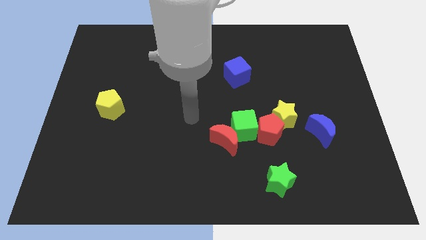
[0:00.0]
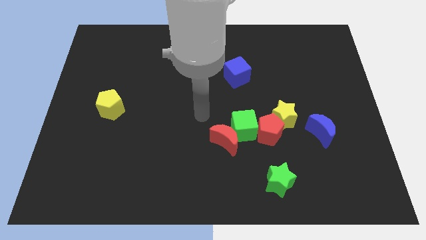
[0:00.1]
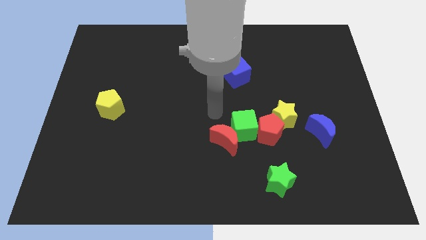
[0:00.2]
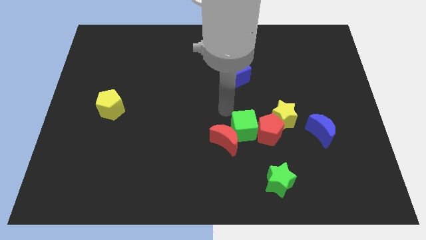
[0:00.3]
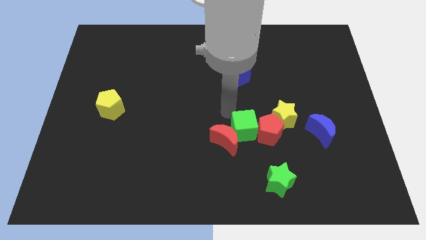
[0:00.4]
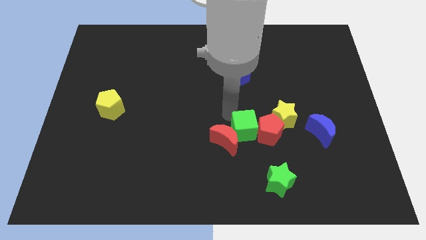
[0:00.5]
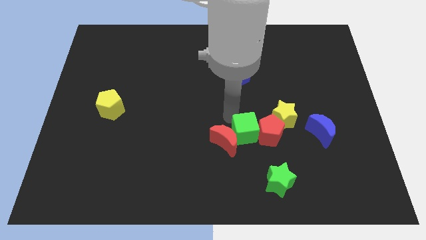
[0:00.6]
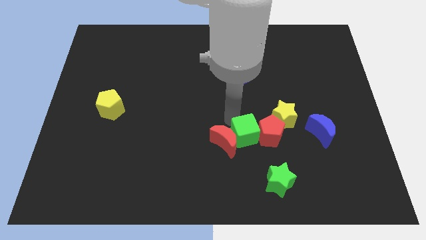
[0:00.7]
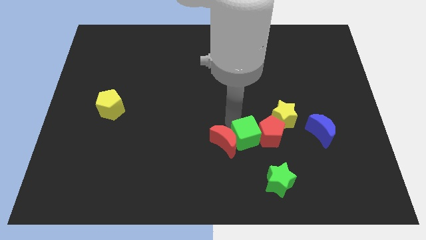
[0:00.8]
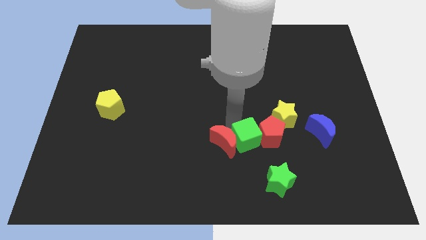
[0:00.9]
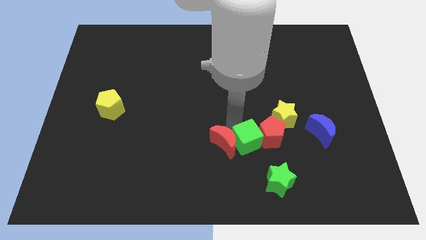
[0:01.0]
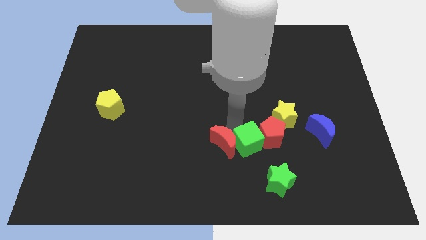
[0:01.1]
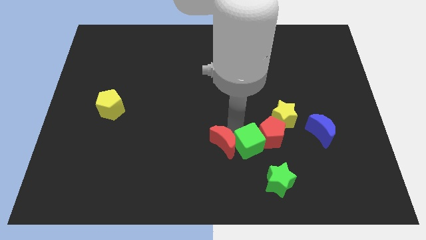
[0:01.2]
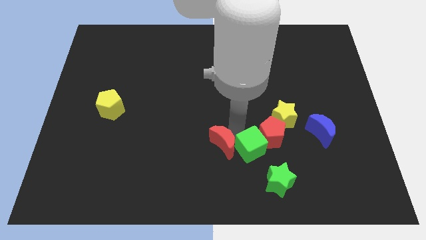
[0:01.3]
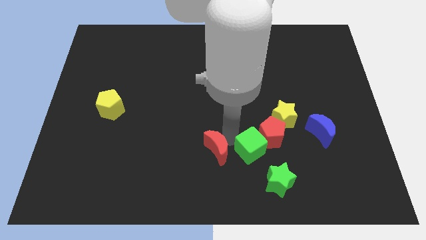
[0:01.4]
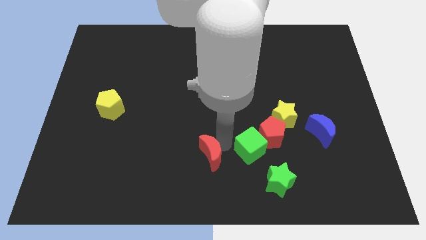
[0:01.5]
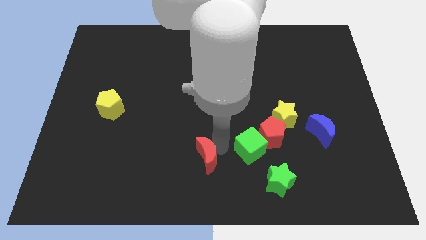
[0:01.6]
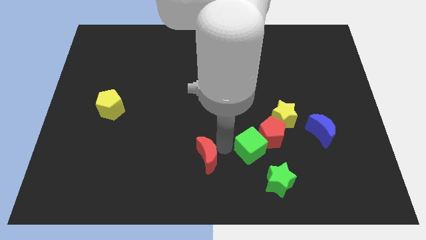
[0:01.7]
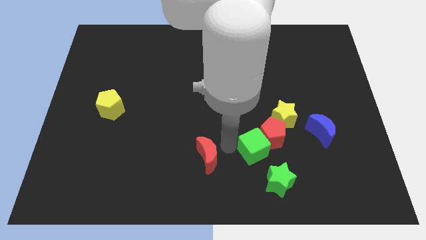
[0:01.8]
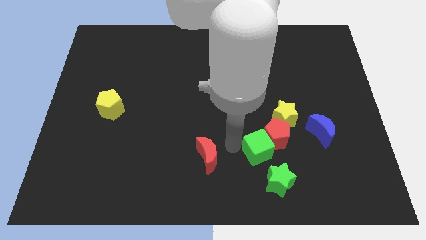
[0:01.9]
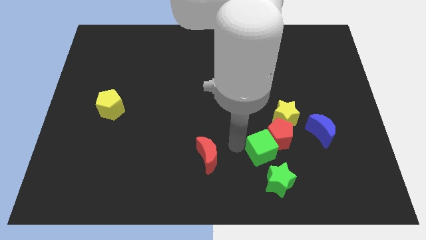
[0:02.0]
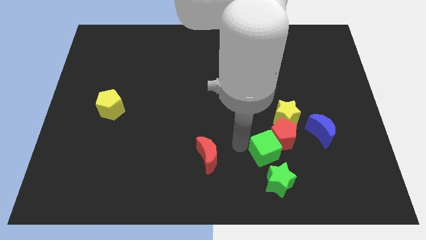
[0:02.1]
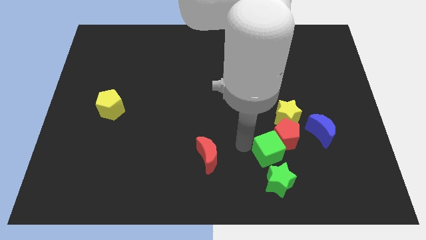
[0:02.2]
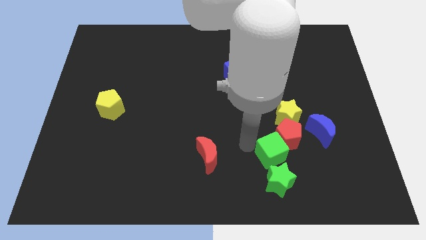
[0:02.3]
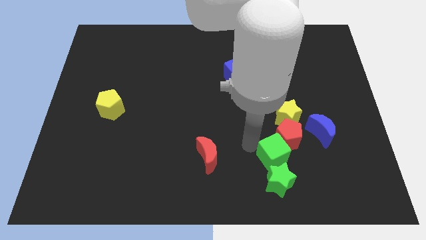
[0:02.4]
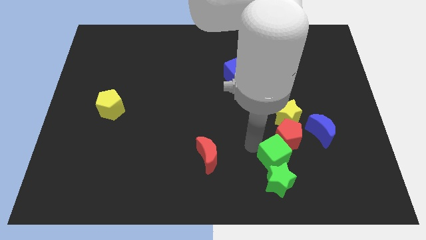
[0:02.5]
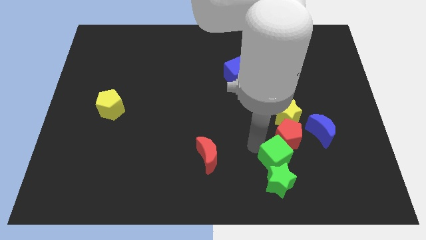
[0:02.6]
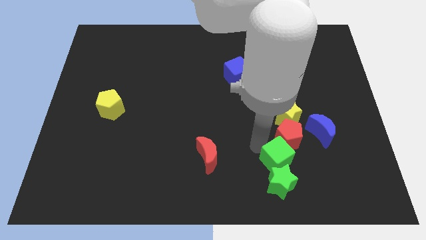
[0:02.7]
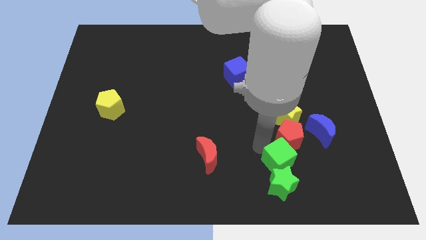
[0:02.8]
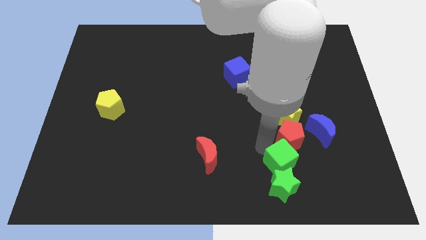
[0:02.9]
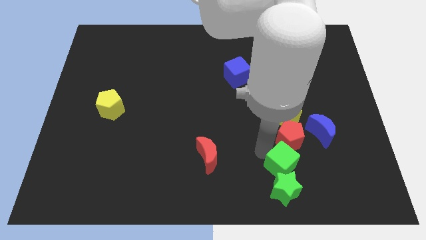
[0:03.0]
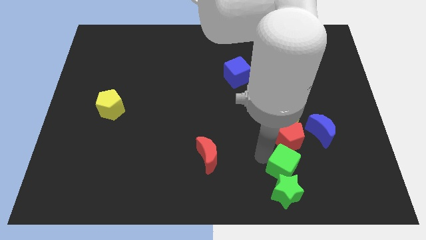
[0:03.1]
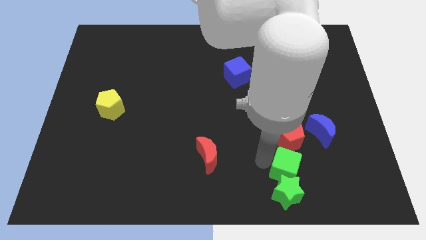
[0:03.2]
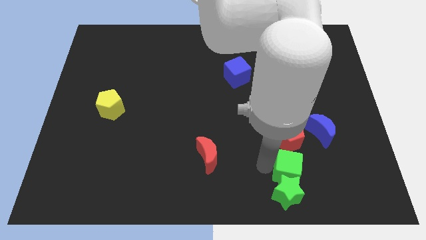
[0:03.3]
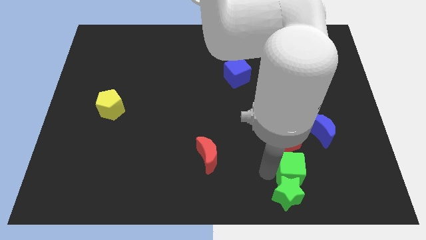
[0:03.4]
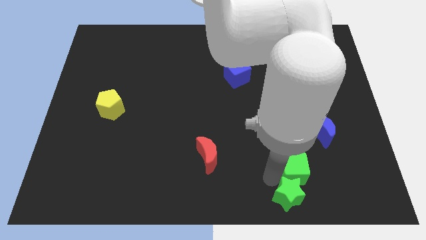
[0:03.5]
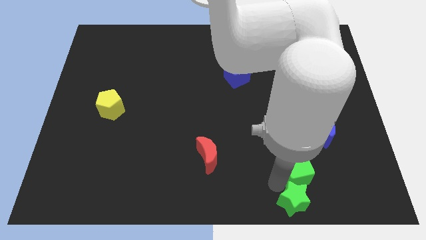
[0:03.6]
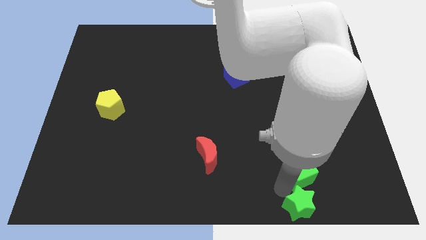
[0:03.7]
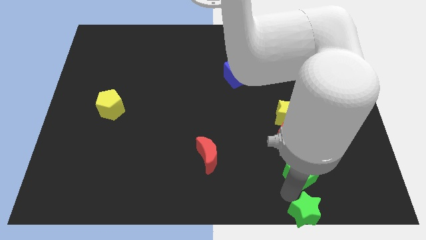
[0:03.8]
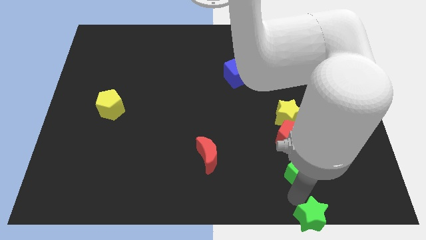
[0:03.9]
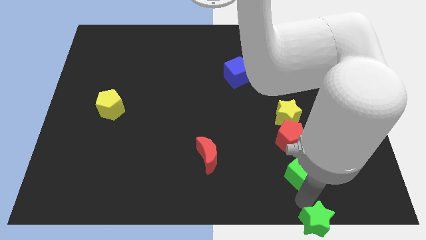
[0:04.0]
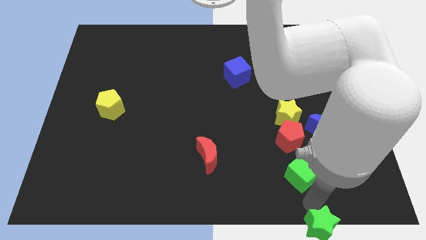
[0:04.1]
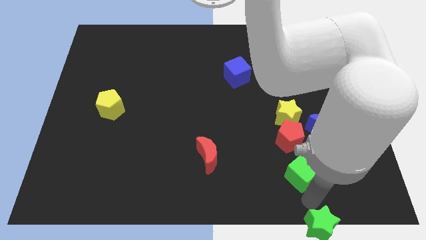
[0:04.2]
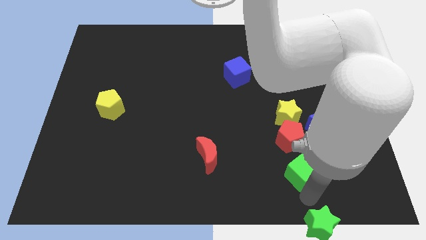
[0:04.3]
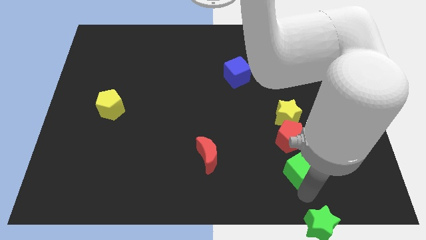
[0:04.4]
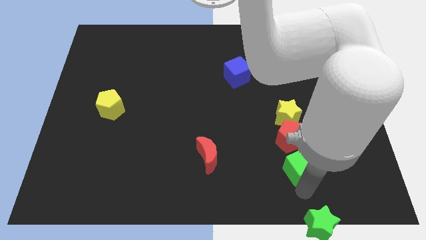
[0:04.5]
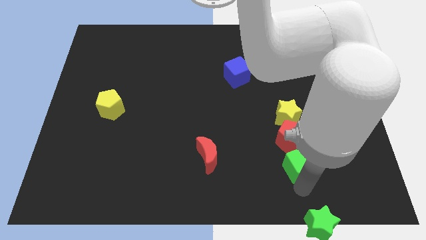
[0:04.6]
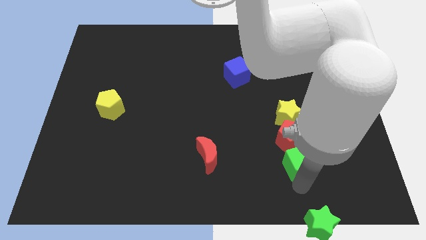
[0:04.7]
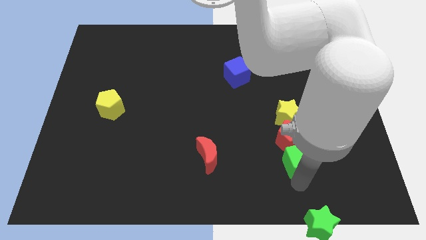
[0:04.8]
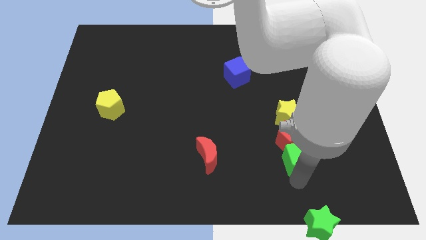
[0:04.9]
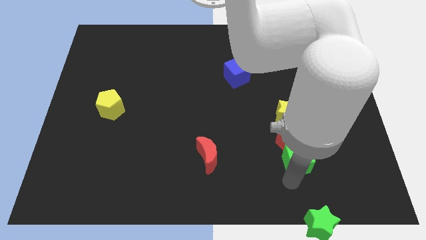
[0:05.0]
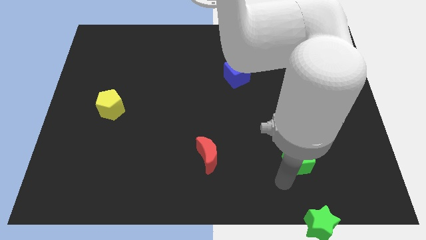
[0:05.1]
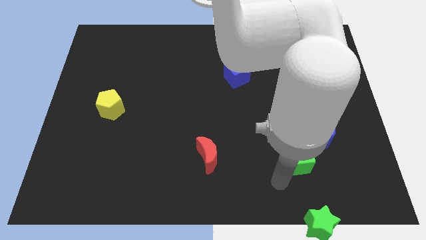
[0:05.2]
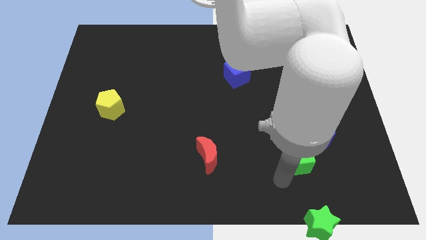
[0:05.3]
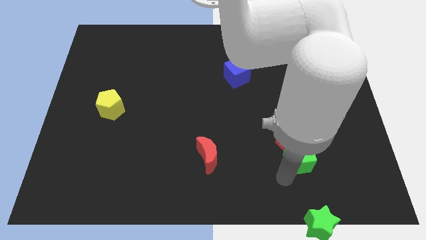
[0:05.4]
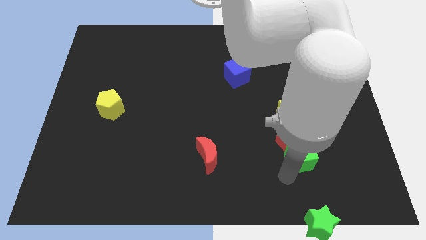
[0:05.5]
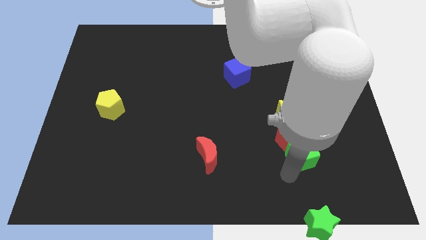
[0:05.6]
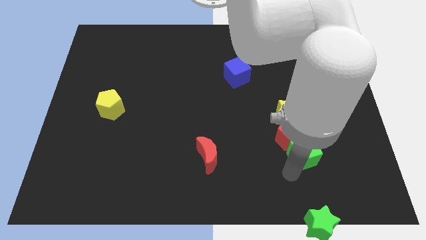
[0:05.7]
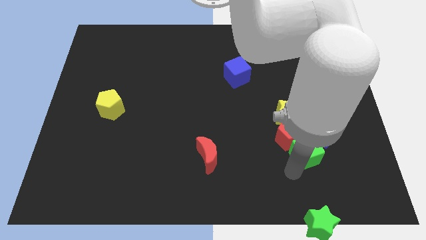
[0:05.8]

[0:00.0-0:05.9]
slide the green cube just right of the red pentagon

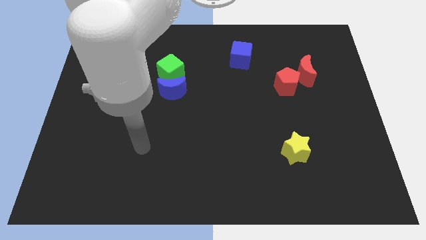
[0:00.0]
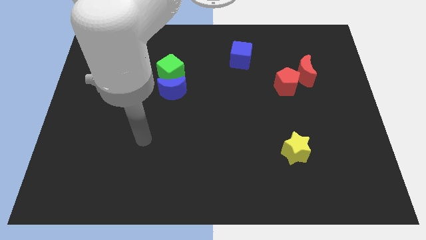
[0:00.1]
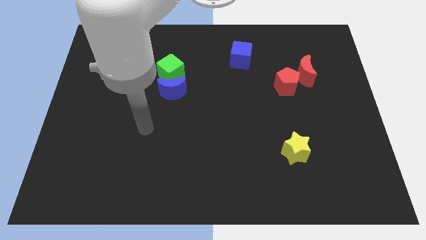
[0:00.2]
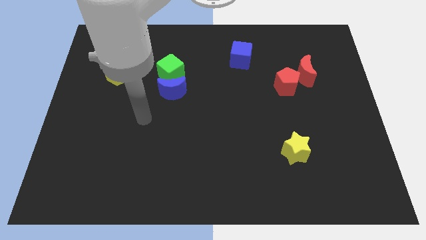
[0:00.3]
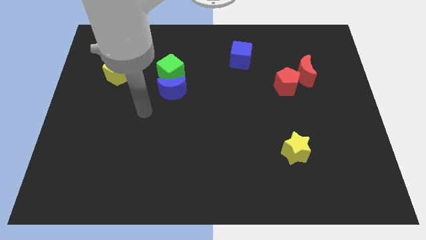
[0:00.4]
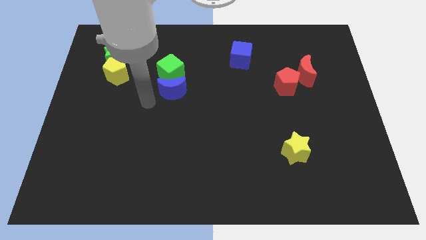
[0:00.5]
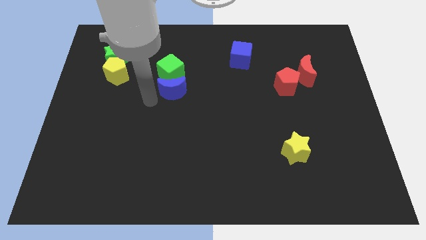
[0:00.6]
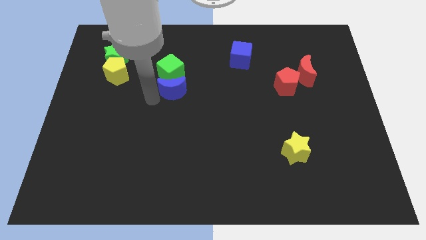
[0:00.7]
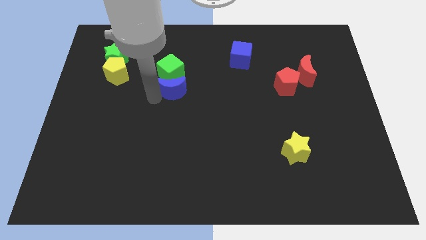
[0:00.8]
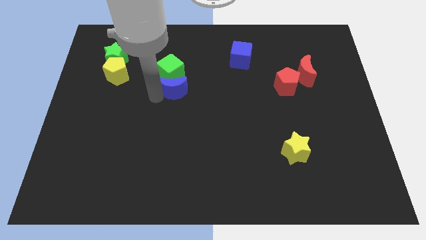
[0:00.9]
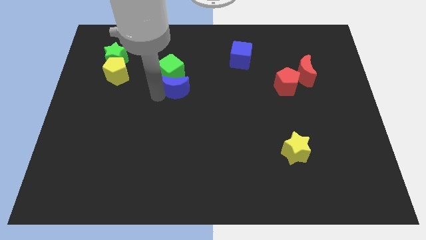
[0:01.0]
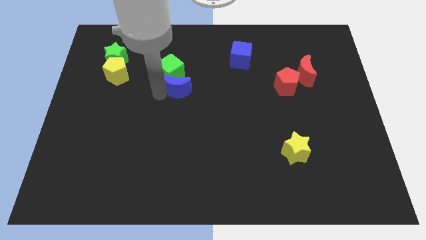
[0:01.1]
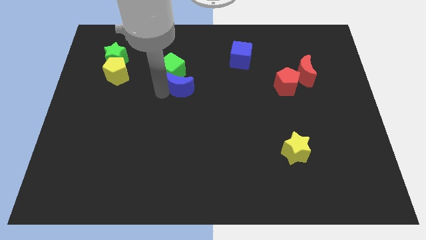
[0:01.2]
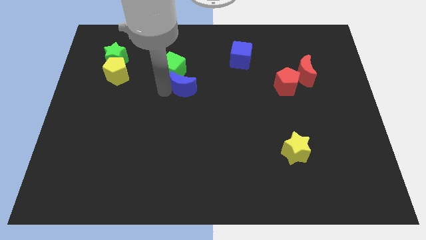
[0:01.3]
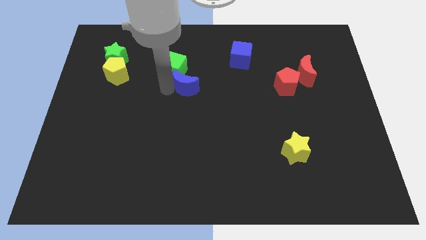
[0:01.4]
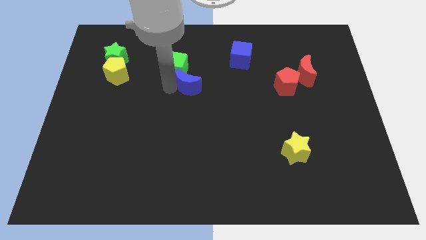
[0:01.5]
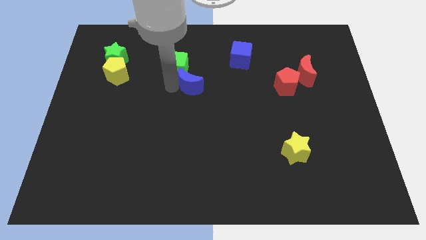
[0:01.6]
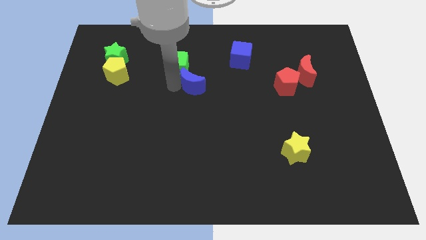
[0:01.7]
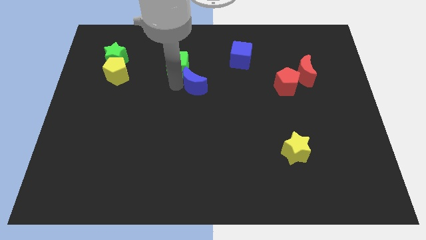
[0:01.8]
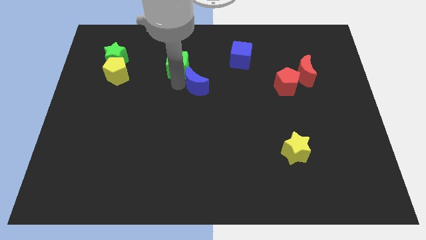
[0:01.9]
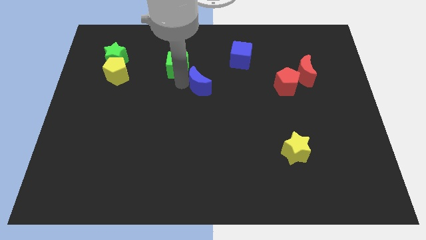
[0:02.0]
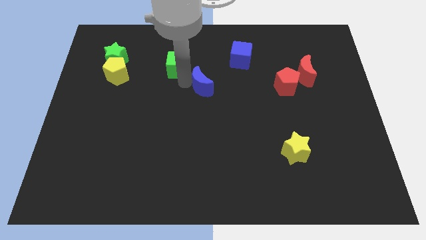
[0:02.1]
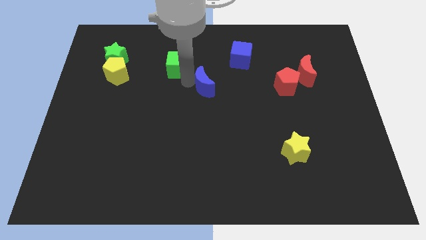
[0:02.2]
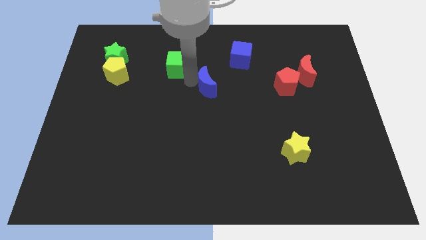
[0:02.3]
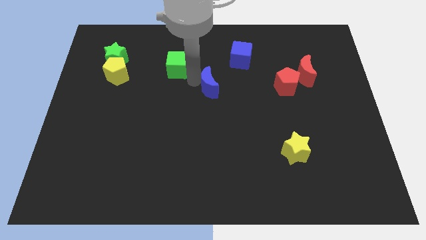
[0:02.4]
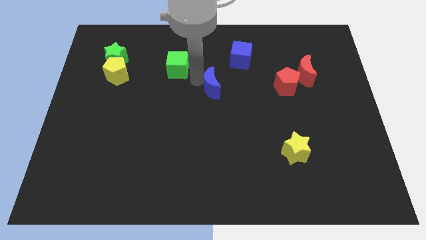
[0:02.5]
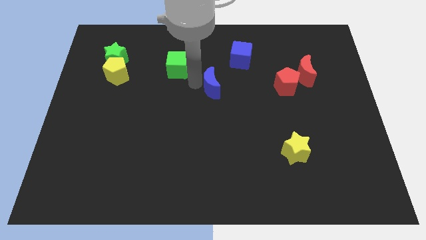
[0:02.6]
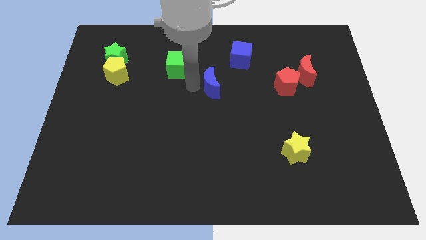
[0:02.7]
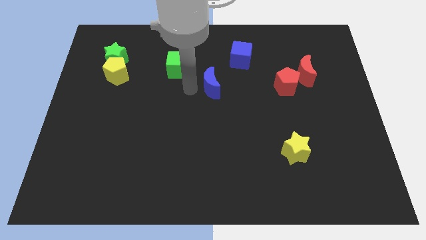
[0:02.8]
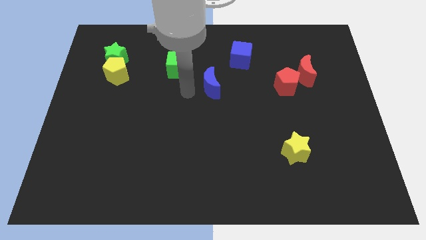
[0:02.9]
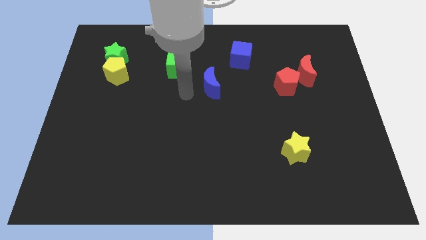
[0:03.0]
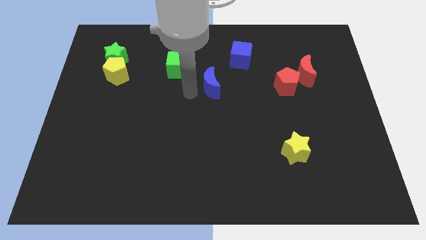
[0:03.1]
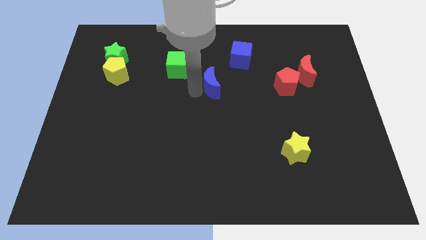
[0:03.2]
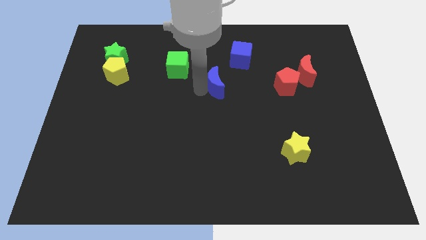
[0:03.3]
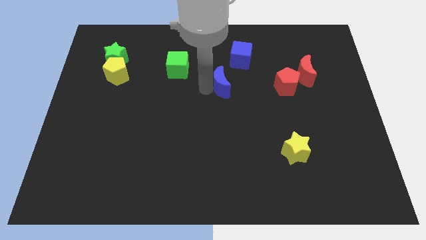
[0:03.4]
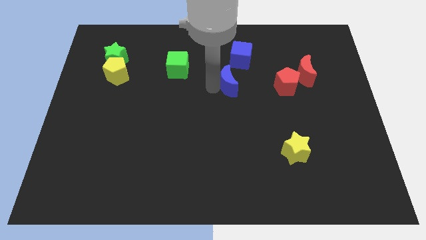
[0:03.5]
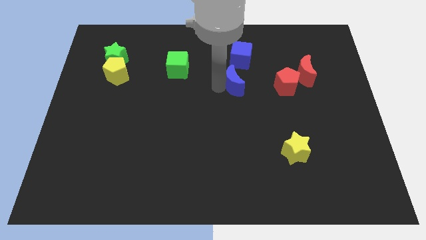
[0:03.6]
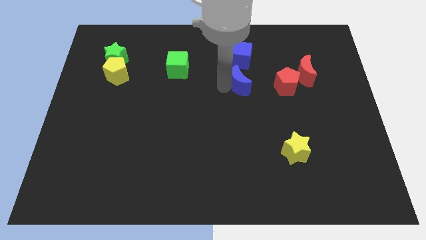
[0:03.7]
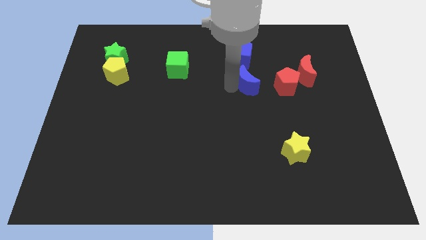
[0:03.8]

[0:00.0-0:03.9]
push the blue moon to the left side of the red moon
